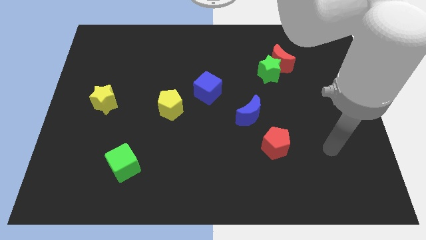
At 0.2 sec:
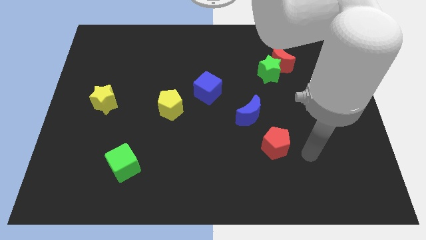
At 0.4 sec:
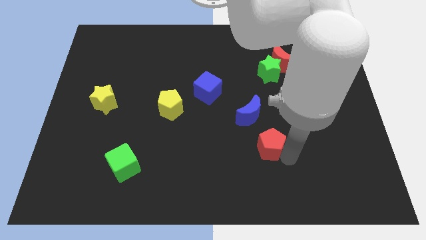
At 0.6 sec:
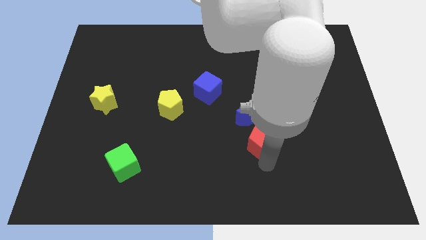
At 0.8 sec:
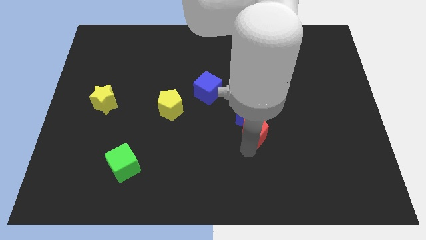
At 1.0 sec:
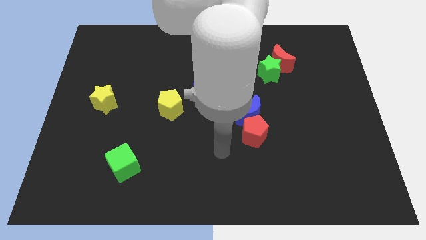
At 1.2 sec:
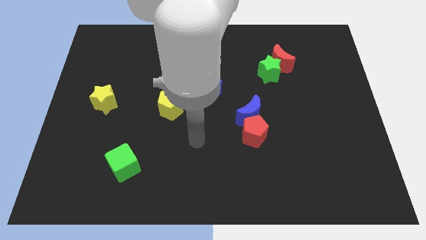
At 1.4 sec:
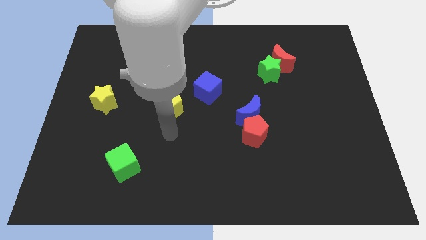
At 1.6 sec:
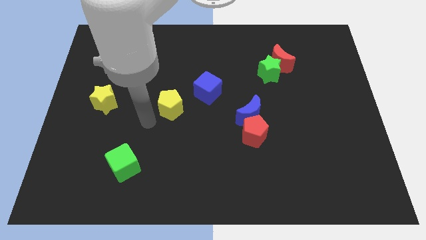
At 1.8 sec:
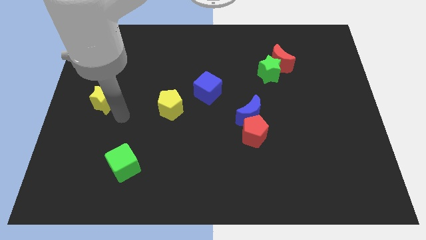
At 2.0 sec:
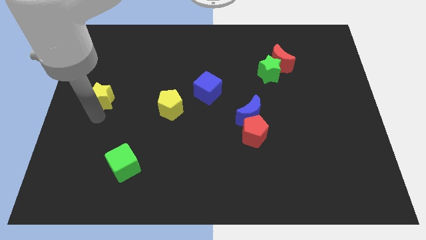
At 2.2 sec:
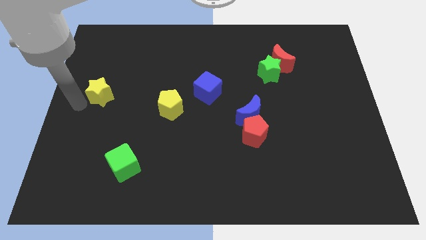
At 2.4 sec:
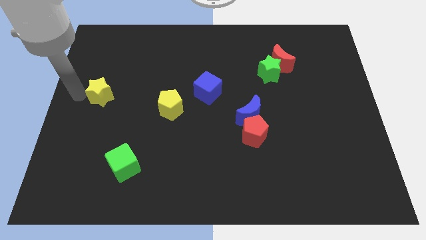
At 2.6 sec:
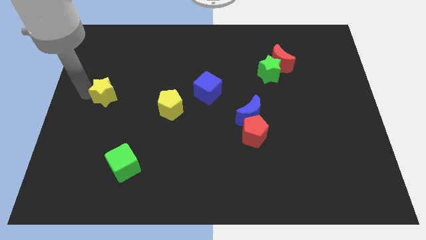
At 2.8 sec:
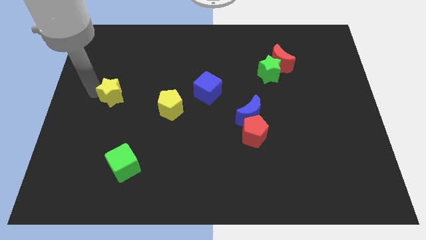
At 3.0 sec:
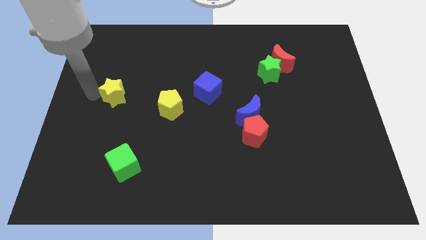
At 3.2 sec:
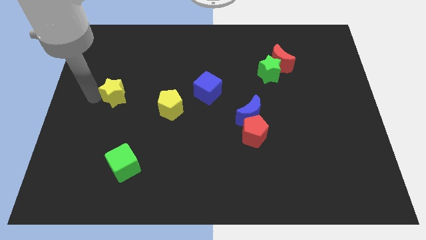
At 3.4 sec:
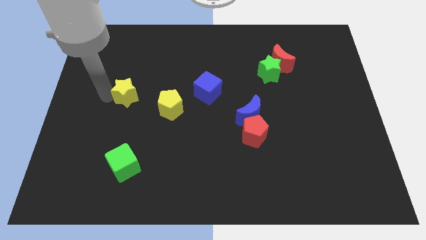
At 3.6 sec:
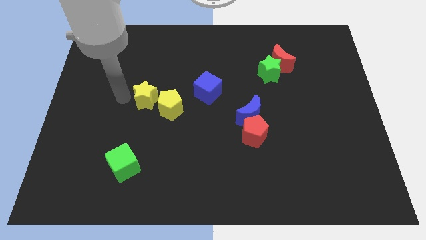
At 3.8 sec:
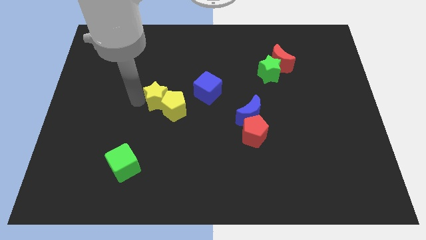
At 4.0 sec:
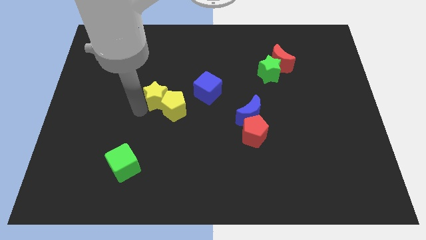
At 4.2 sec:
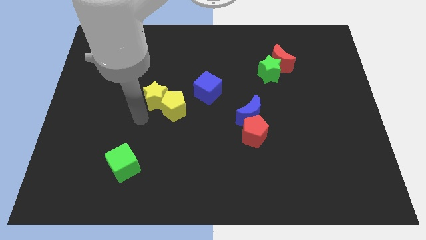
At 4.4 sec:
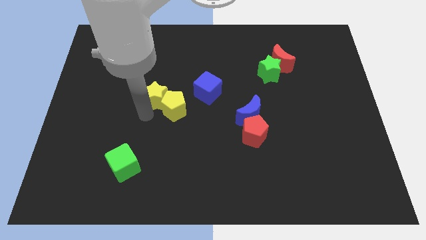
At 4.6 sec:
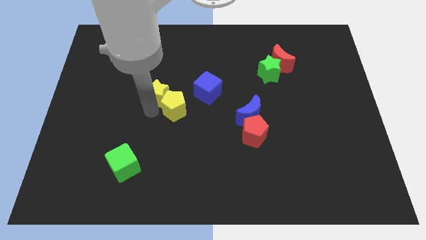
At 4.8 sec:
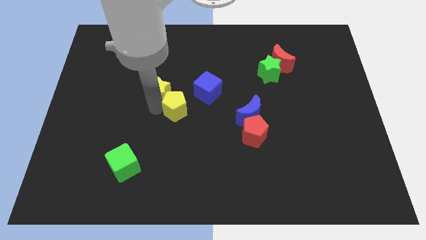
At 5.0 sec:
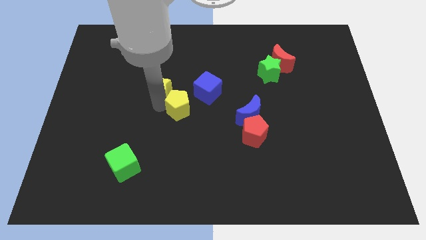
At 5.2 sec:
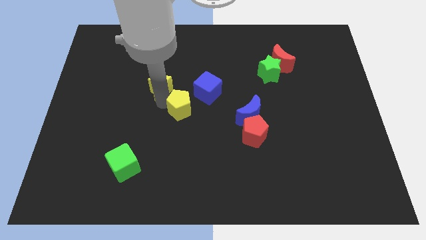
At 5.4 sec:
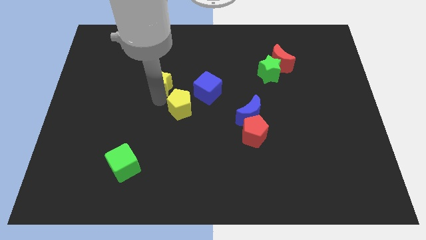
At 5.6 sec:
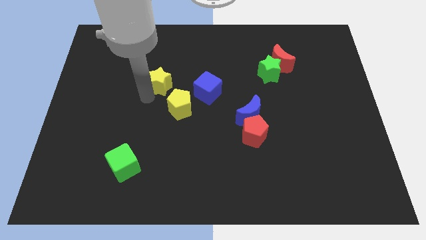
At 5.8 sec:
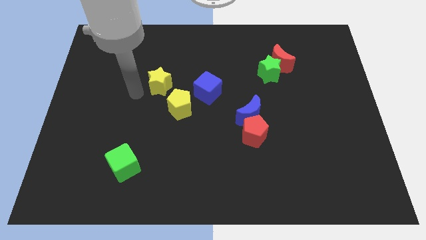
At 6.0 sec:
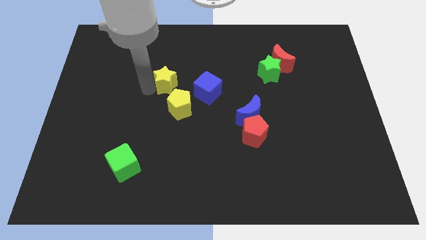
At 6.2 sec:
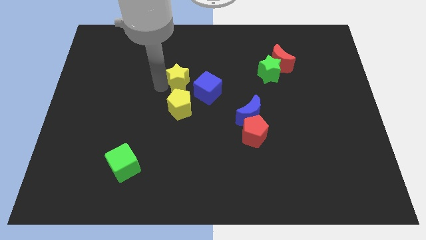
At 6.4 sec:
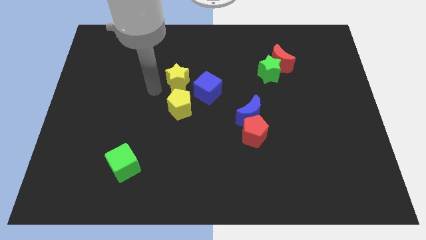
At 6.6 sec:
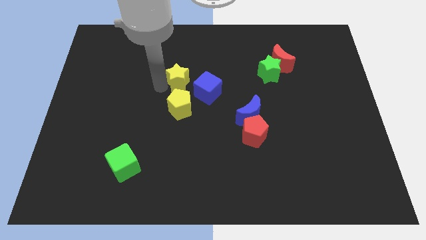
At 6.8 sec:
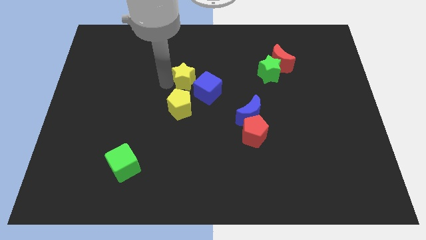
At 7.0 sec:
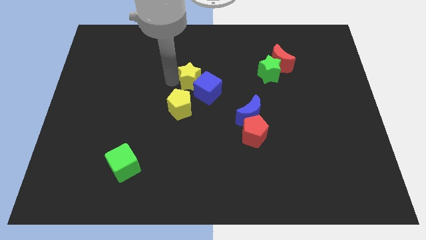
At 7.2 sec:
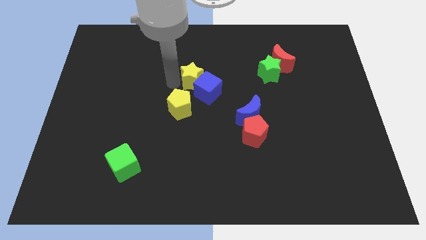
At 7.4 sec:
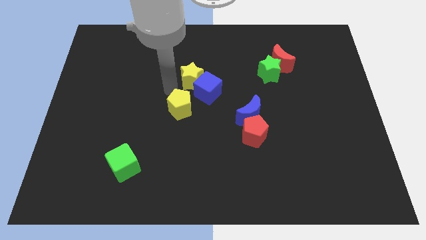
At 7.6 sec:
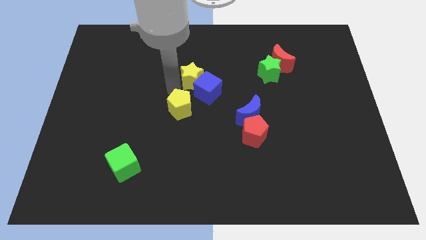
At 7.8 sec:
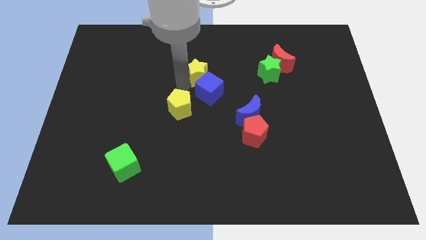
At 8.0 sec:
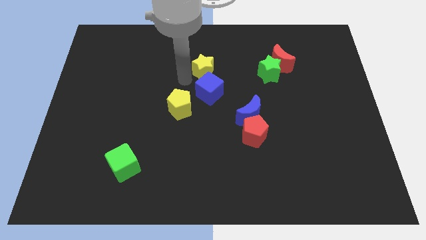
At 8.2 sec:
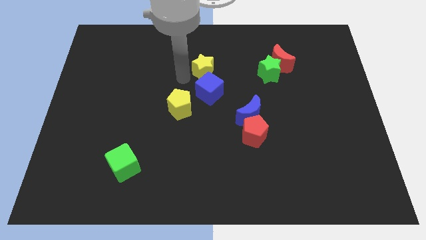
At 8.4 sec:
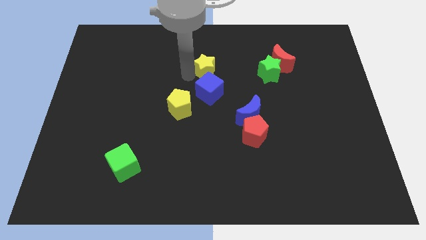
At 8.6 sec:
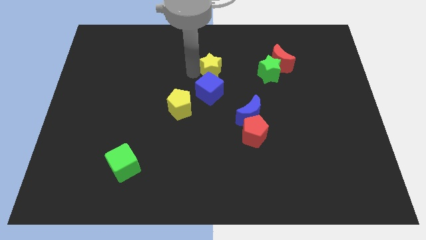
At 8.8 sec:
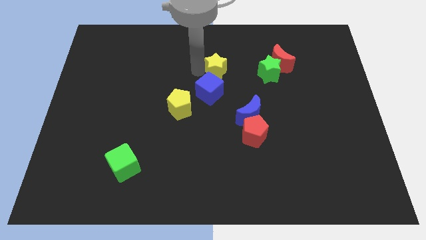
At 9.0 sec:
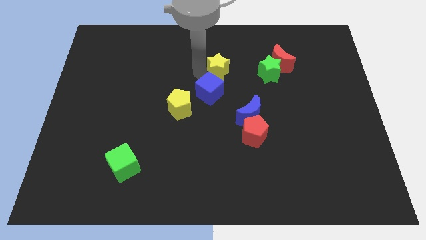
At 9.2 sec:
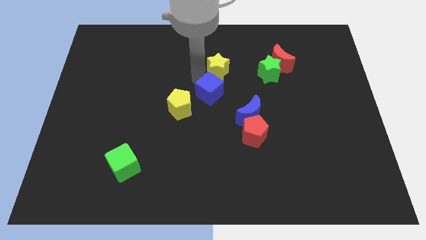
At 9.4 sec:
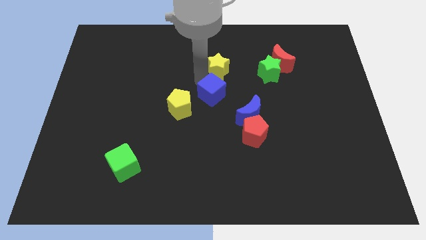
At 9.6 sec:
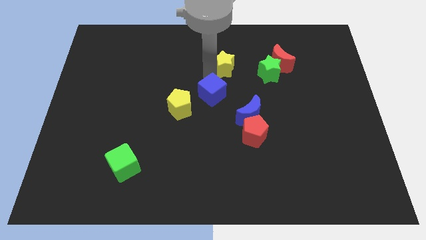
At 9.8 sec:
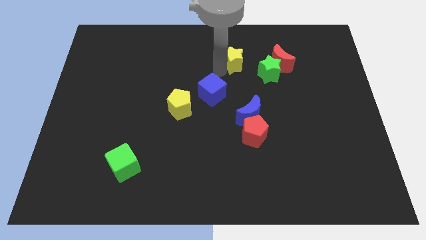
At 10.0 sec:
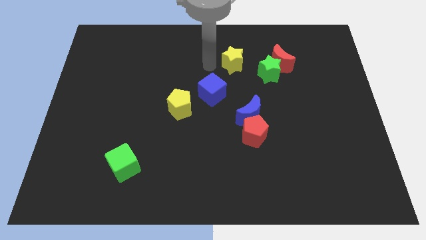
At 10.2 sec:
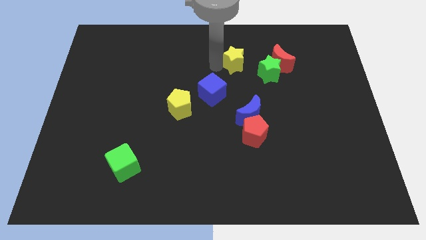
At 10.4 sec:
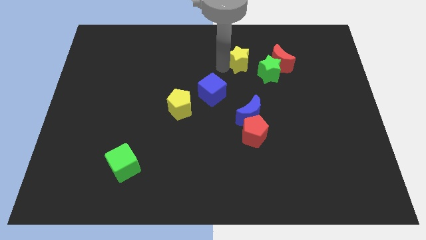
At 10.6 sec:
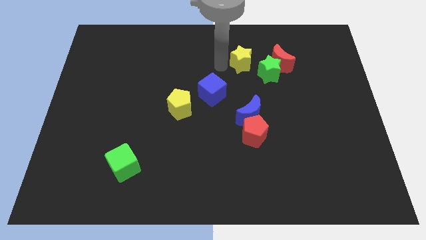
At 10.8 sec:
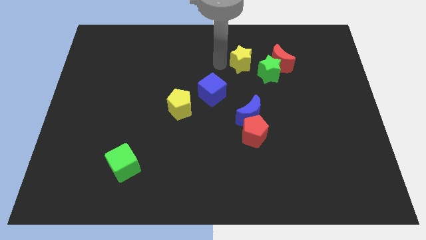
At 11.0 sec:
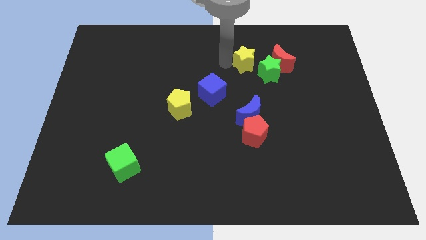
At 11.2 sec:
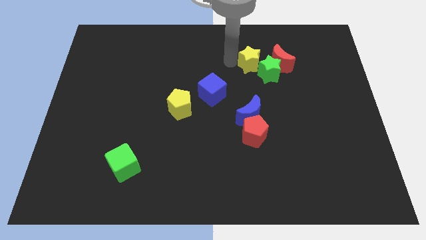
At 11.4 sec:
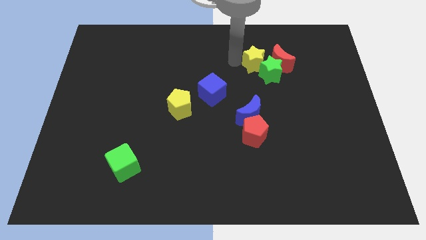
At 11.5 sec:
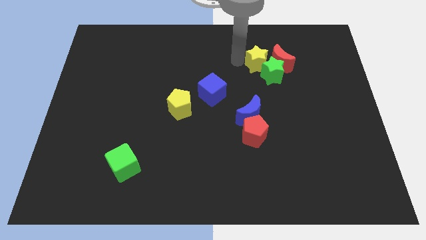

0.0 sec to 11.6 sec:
move the yellow star to the red moon
